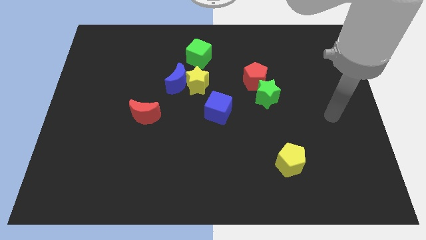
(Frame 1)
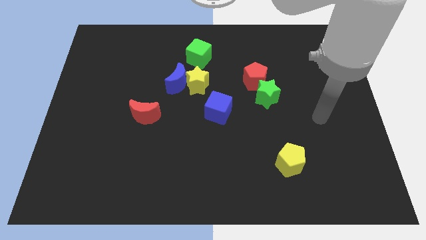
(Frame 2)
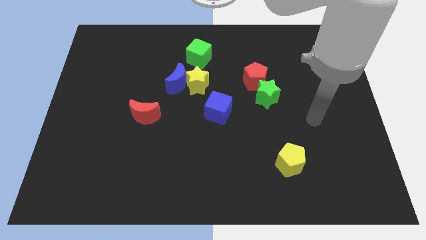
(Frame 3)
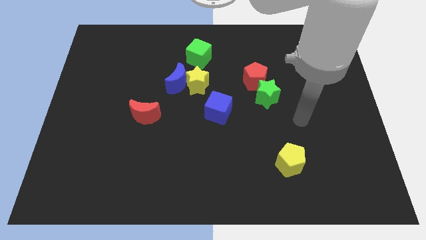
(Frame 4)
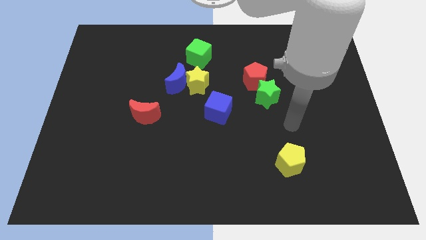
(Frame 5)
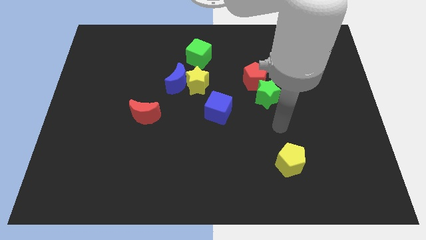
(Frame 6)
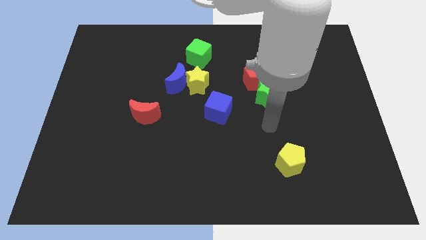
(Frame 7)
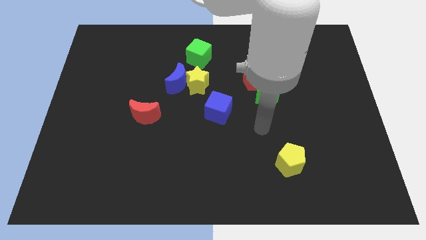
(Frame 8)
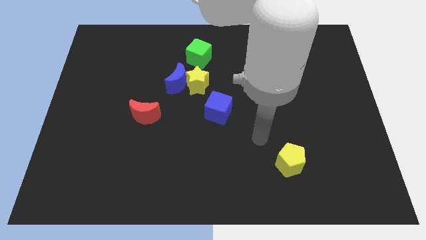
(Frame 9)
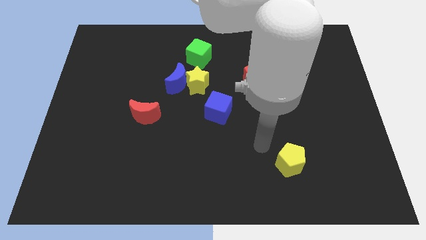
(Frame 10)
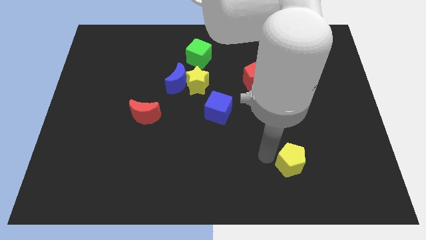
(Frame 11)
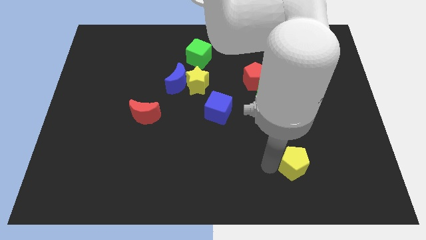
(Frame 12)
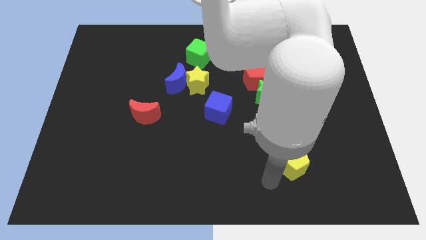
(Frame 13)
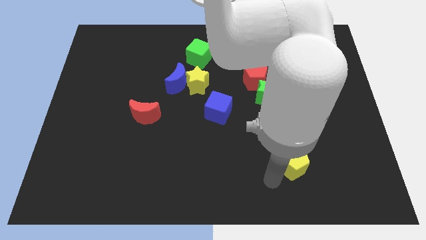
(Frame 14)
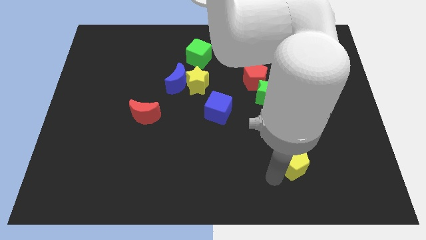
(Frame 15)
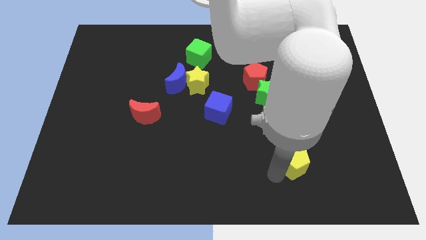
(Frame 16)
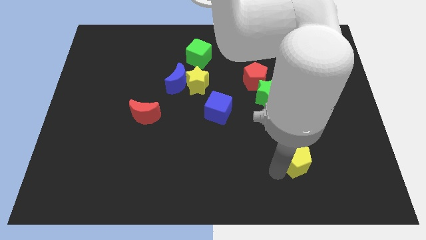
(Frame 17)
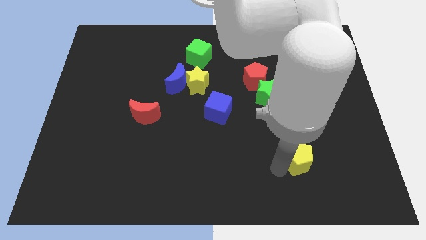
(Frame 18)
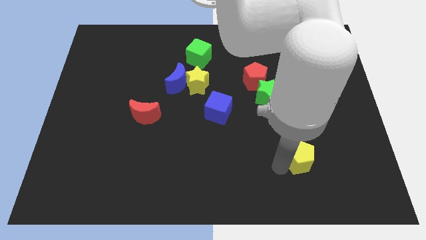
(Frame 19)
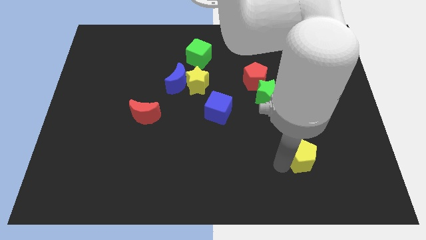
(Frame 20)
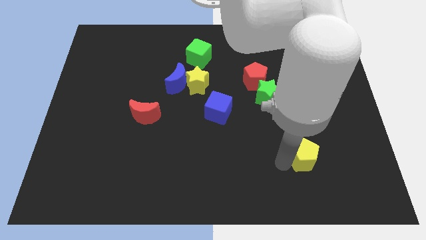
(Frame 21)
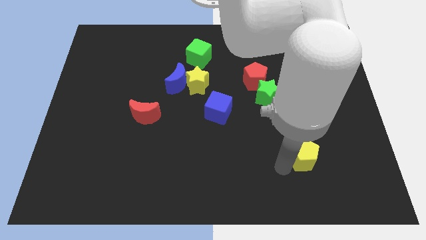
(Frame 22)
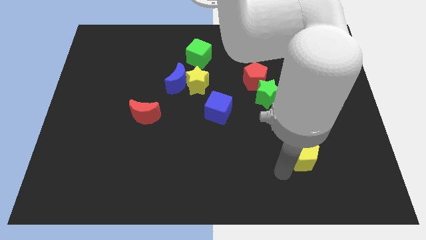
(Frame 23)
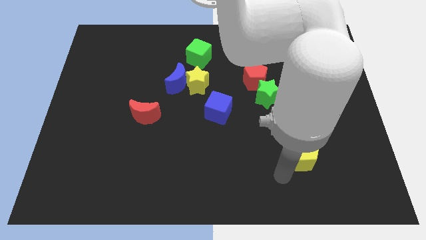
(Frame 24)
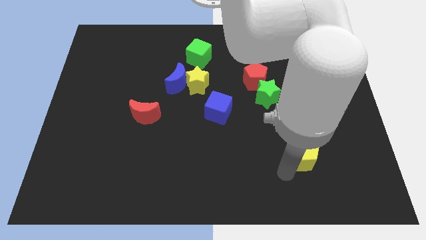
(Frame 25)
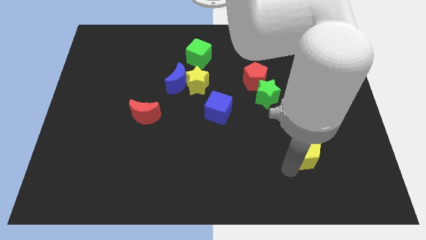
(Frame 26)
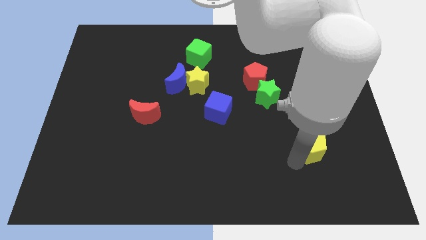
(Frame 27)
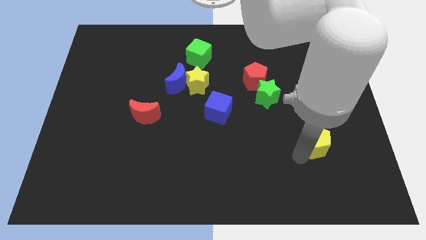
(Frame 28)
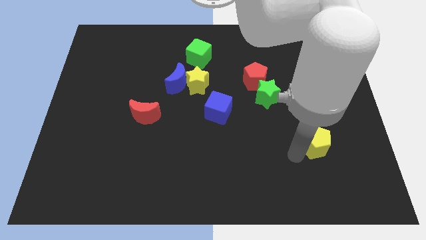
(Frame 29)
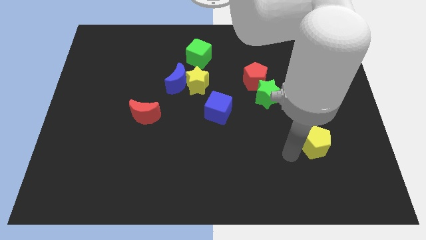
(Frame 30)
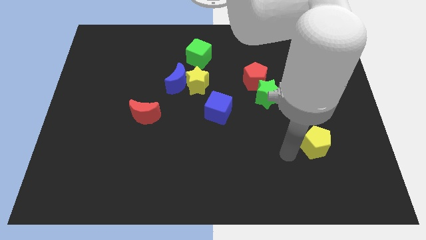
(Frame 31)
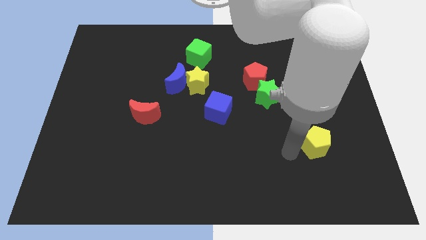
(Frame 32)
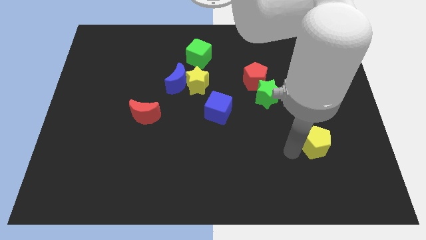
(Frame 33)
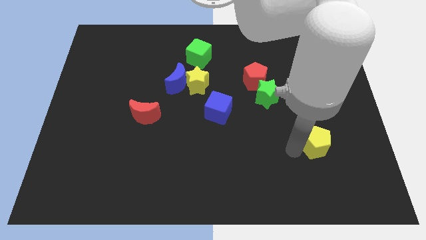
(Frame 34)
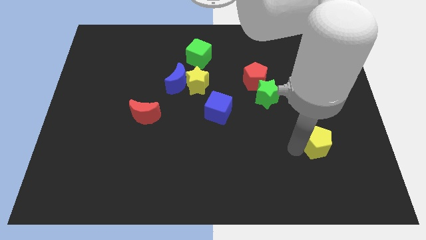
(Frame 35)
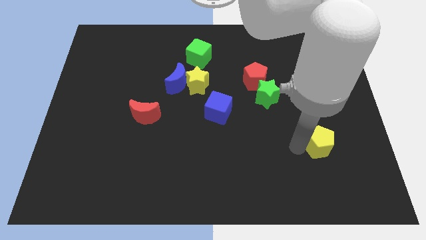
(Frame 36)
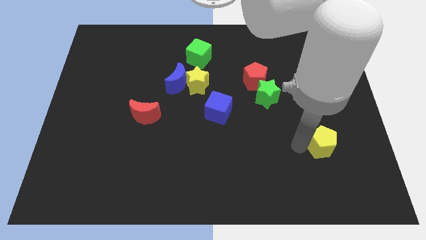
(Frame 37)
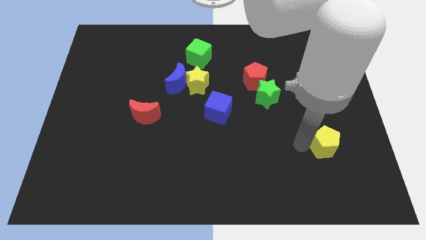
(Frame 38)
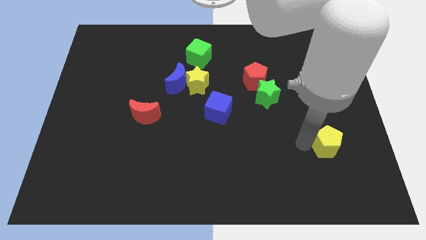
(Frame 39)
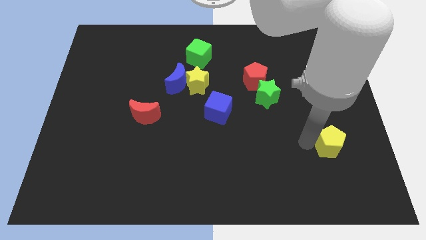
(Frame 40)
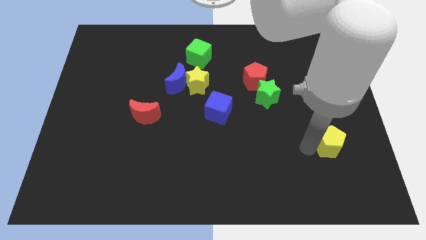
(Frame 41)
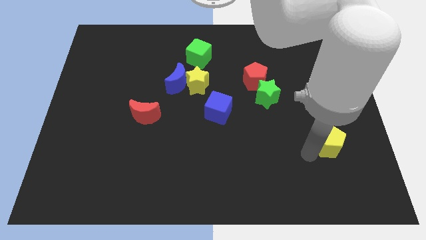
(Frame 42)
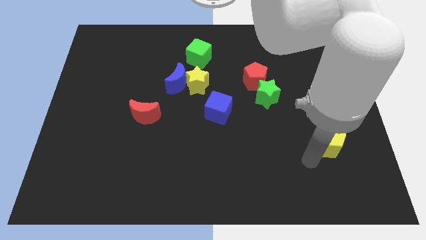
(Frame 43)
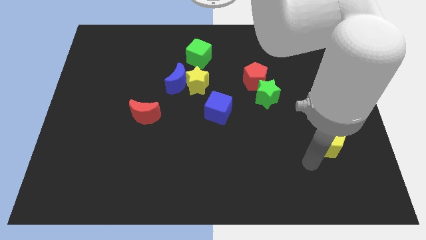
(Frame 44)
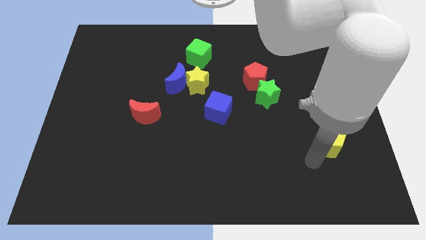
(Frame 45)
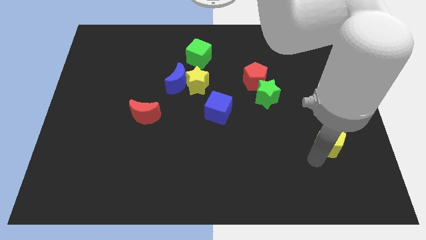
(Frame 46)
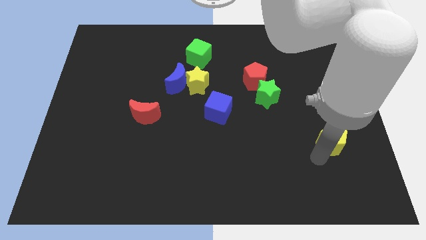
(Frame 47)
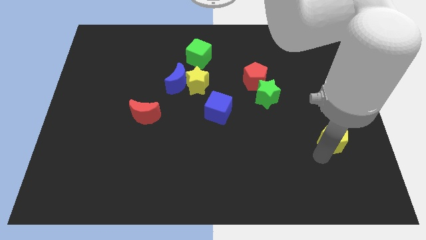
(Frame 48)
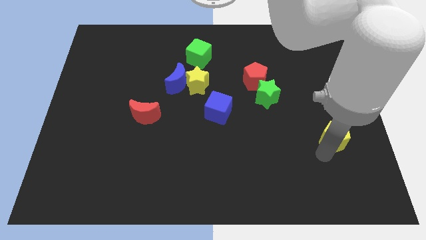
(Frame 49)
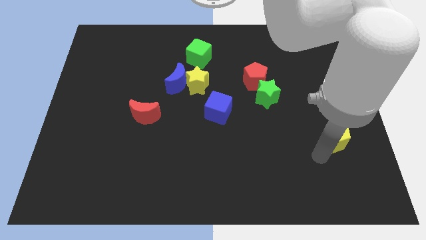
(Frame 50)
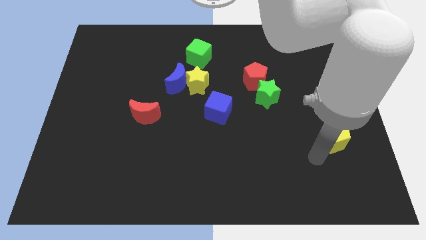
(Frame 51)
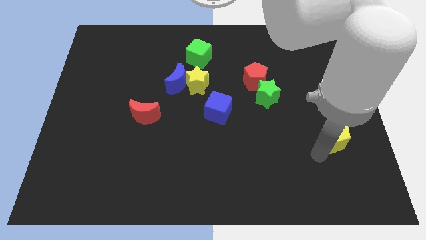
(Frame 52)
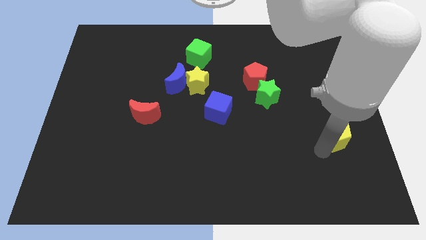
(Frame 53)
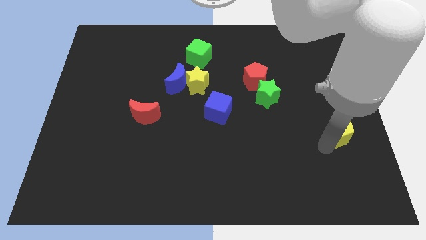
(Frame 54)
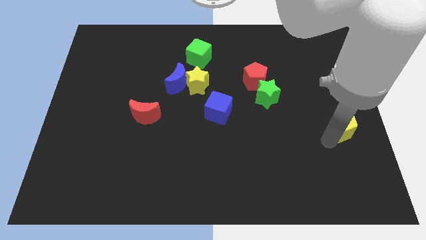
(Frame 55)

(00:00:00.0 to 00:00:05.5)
slide the yellow pentagon to the center right
